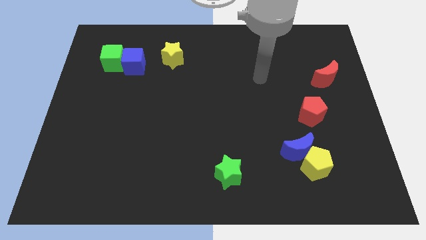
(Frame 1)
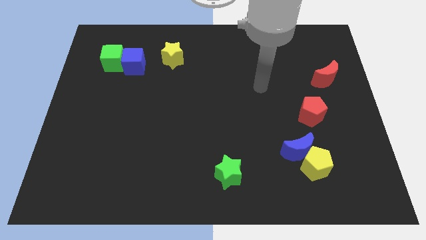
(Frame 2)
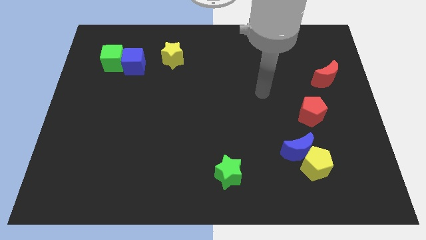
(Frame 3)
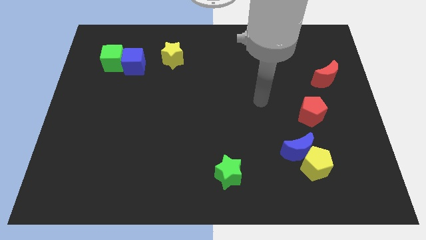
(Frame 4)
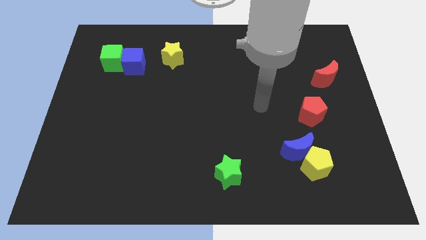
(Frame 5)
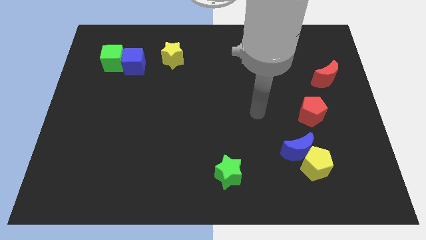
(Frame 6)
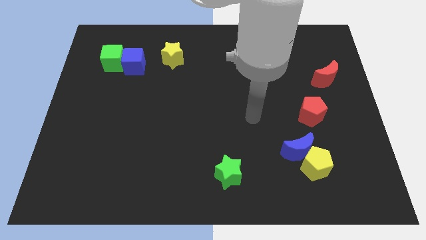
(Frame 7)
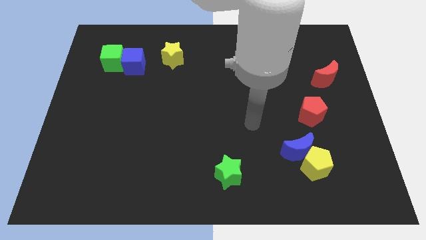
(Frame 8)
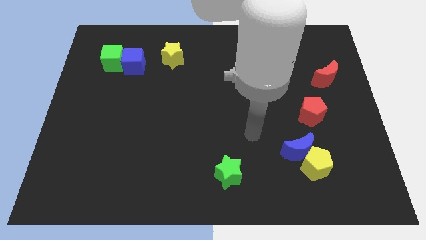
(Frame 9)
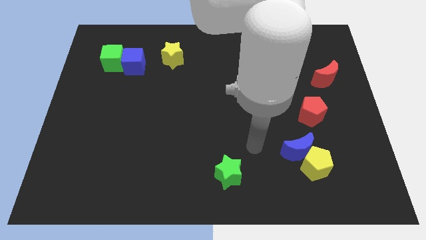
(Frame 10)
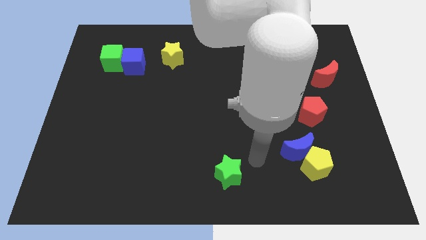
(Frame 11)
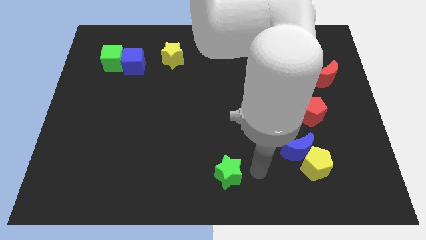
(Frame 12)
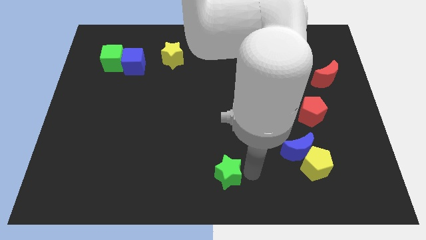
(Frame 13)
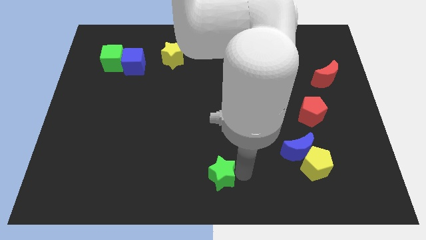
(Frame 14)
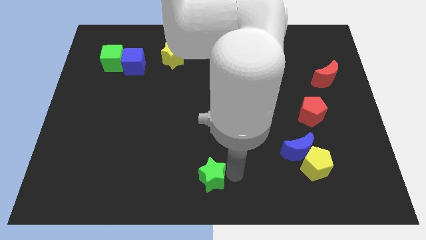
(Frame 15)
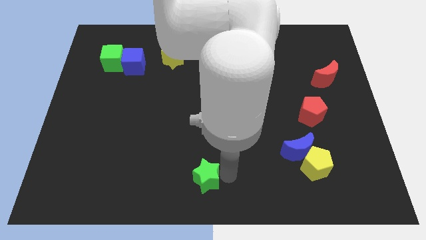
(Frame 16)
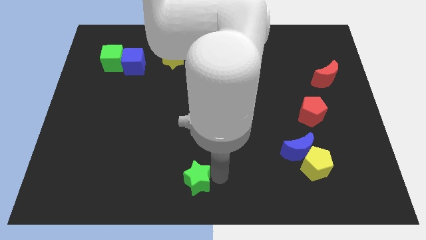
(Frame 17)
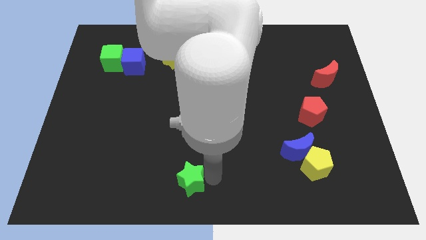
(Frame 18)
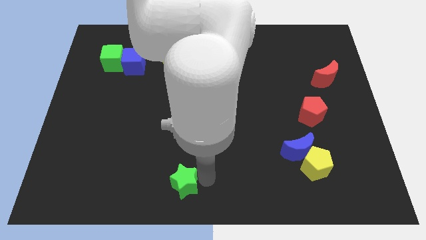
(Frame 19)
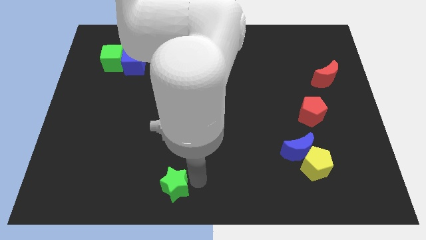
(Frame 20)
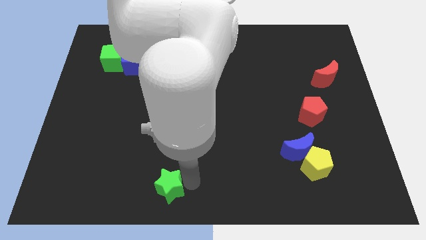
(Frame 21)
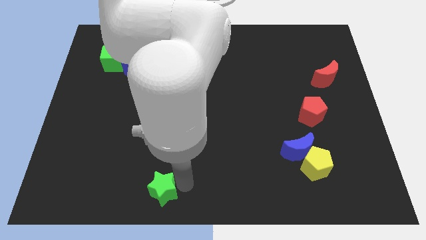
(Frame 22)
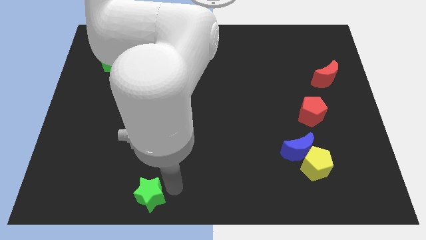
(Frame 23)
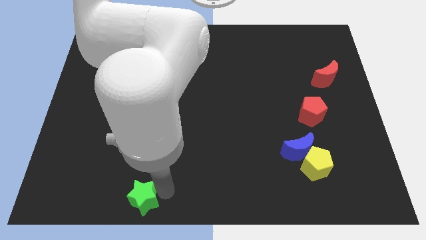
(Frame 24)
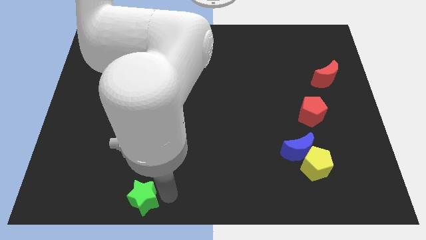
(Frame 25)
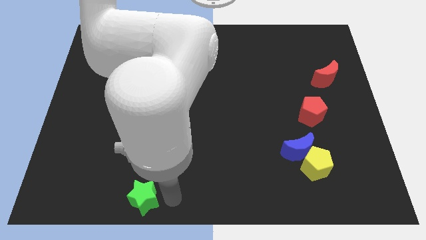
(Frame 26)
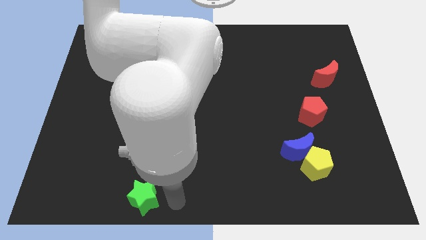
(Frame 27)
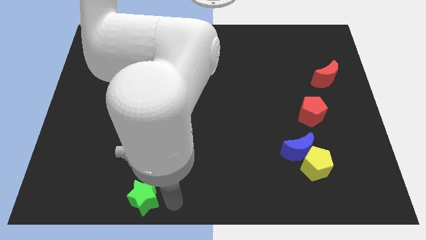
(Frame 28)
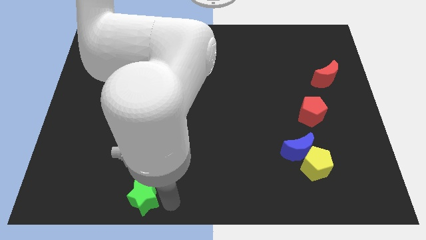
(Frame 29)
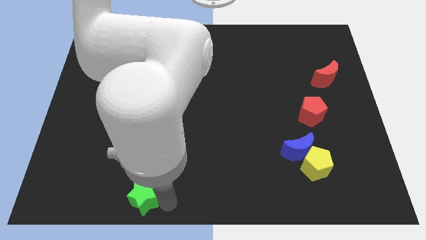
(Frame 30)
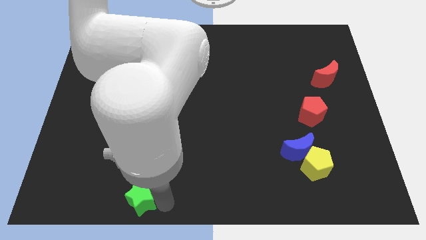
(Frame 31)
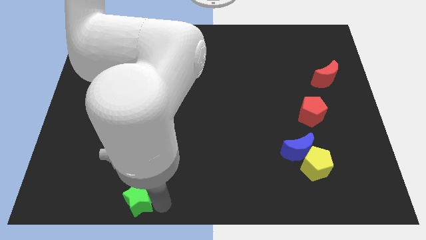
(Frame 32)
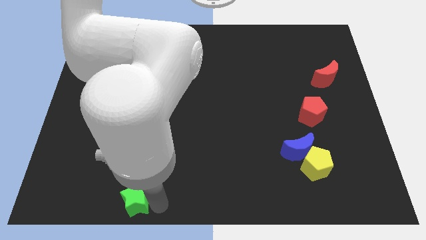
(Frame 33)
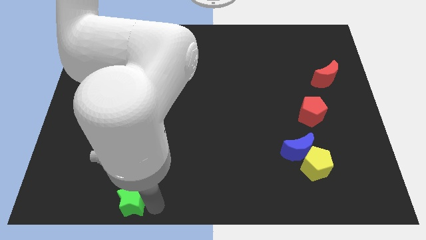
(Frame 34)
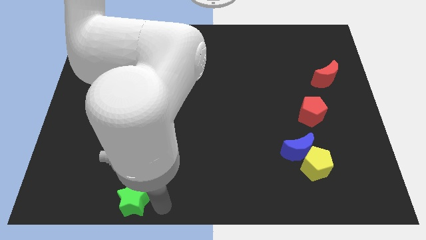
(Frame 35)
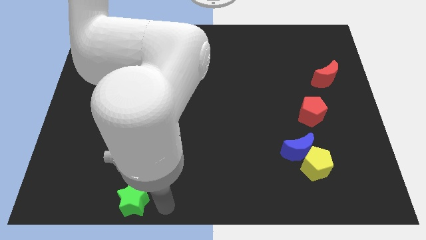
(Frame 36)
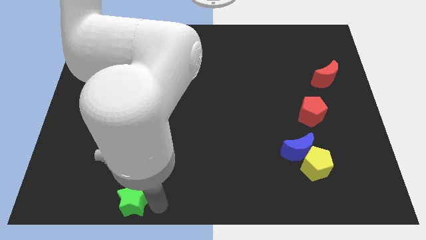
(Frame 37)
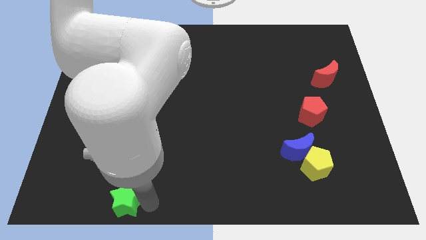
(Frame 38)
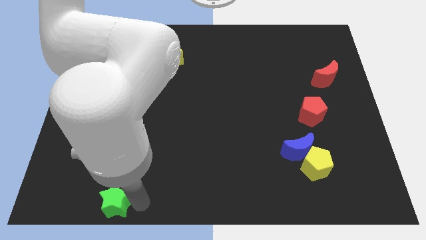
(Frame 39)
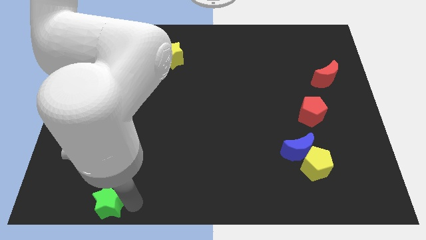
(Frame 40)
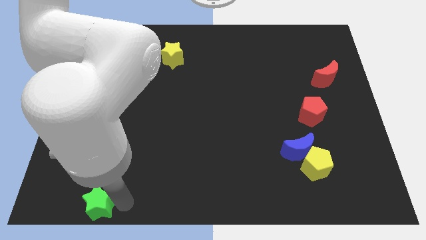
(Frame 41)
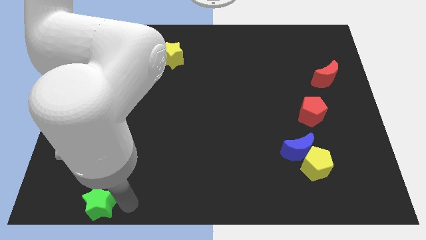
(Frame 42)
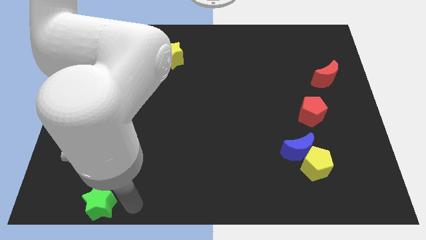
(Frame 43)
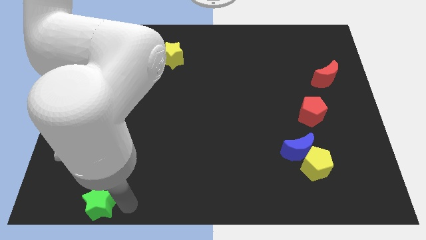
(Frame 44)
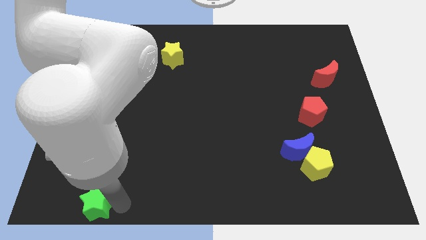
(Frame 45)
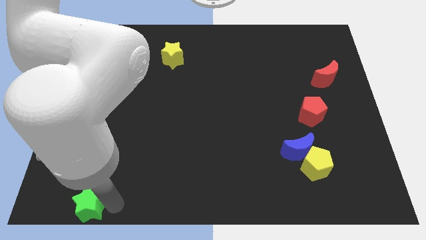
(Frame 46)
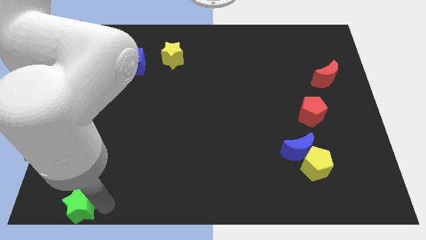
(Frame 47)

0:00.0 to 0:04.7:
put the green star to the bottom left corner

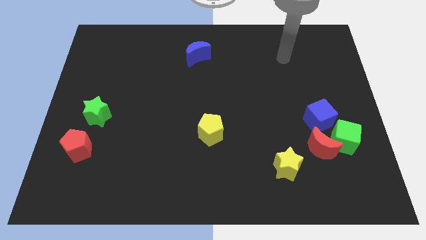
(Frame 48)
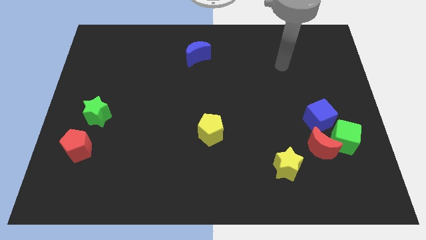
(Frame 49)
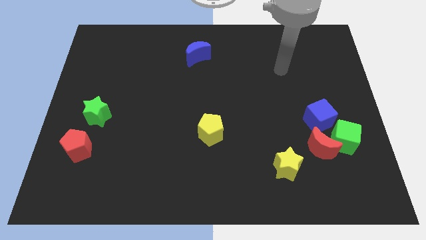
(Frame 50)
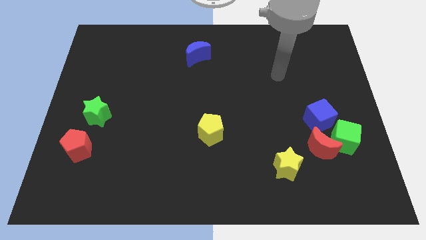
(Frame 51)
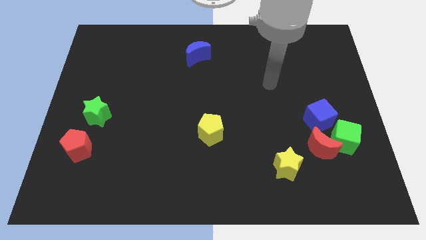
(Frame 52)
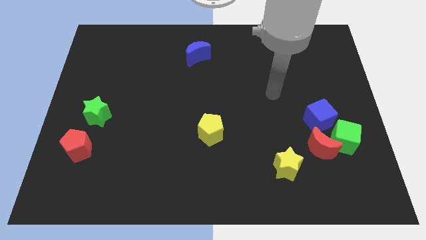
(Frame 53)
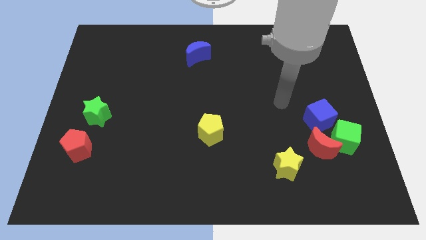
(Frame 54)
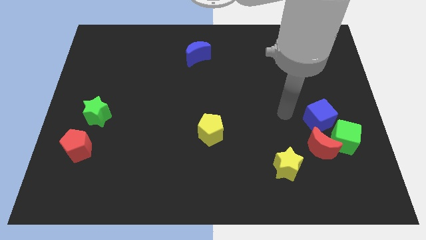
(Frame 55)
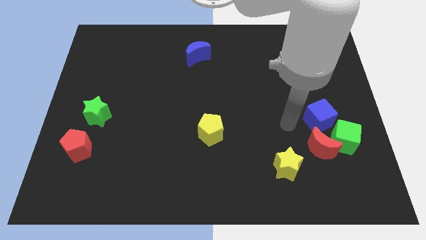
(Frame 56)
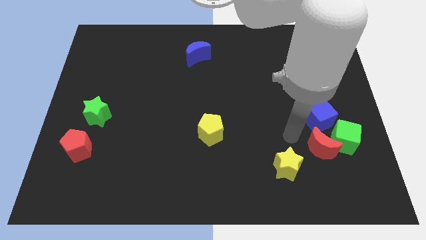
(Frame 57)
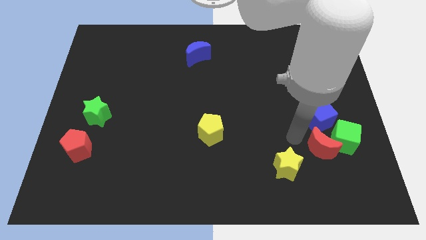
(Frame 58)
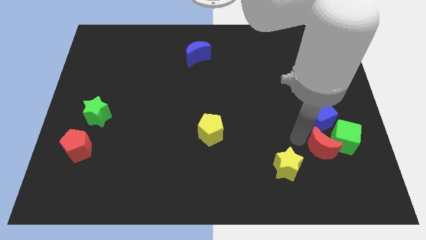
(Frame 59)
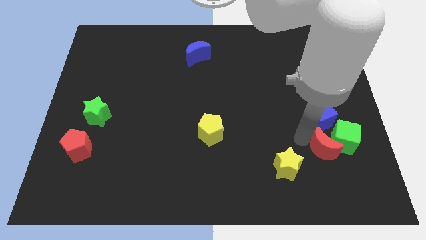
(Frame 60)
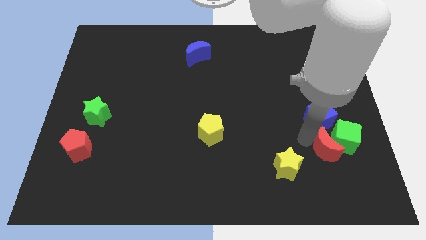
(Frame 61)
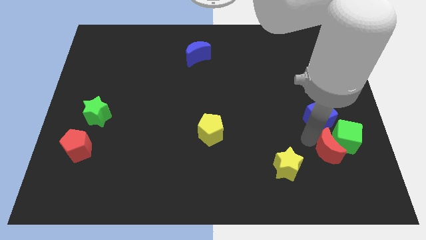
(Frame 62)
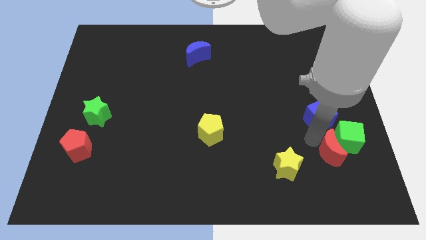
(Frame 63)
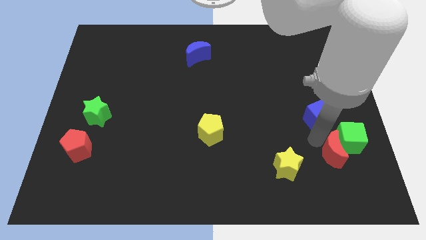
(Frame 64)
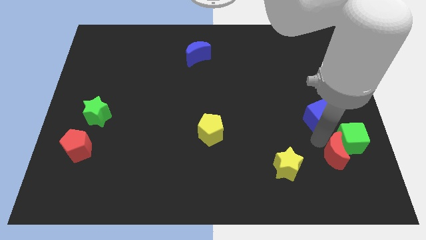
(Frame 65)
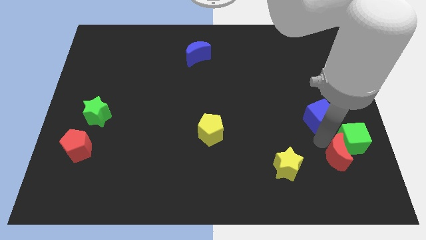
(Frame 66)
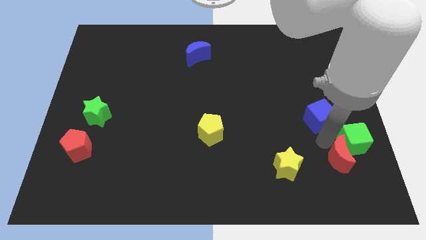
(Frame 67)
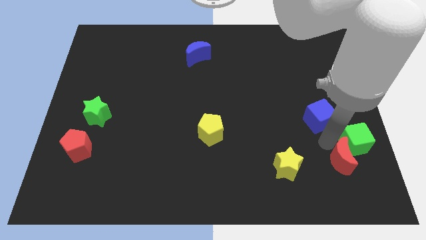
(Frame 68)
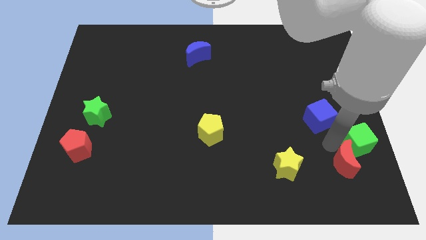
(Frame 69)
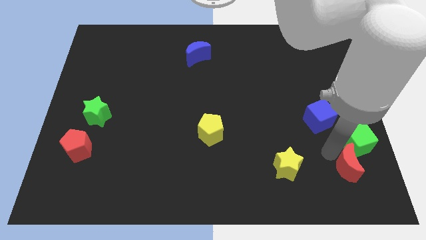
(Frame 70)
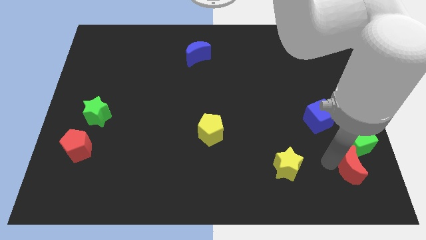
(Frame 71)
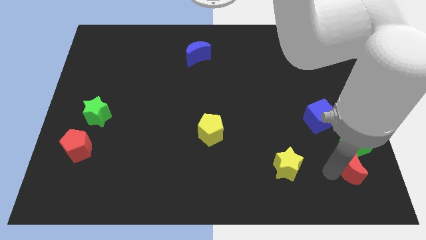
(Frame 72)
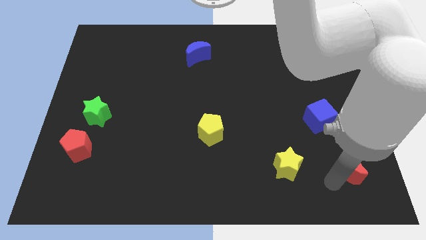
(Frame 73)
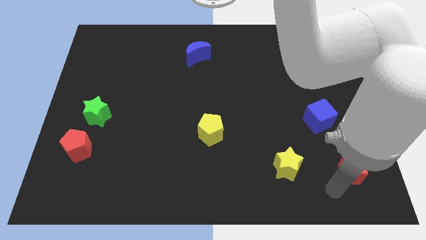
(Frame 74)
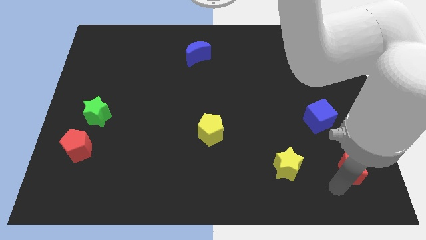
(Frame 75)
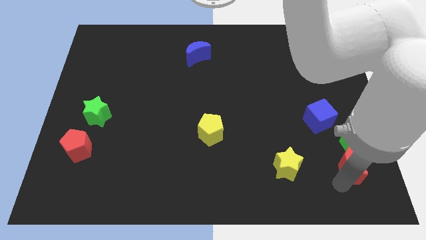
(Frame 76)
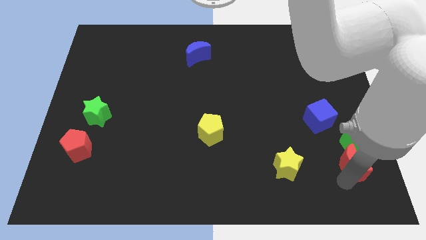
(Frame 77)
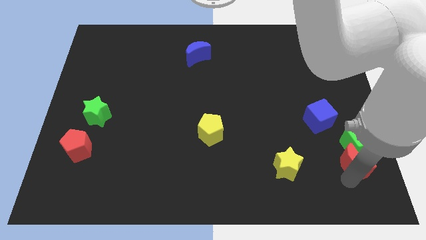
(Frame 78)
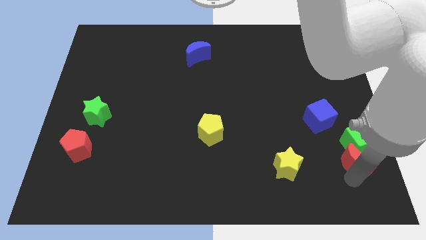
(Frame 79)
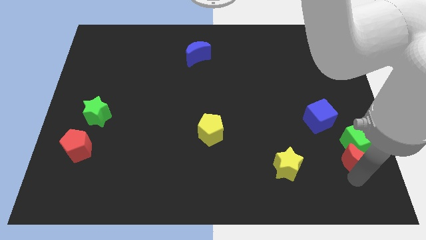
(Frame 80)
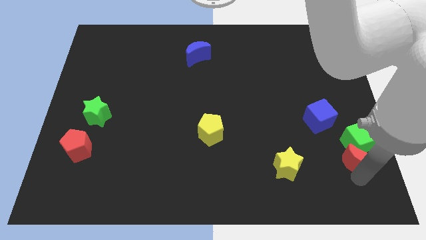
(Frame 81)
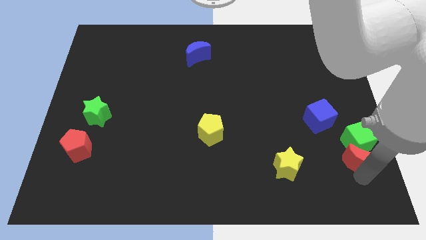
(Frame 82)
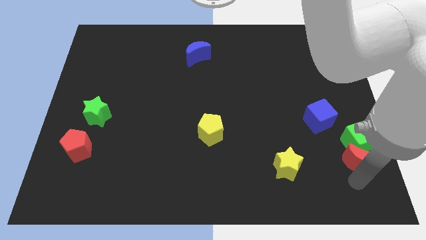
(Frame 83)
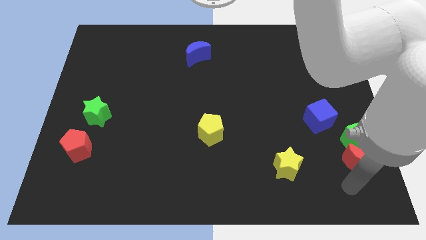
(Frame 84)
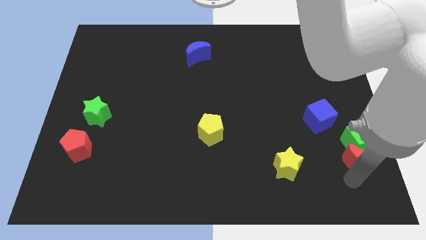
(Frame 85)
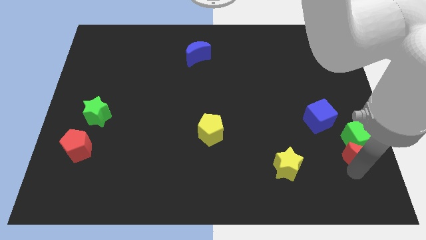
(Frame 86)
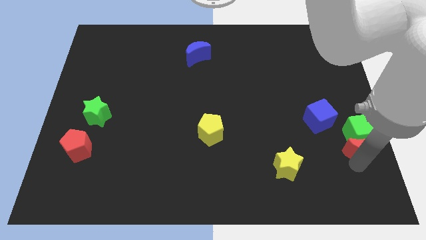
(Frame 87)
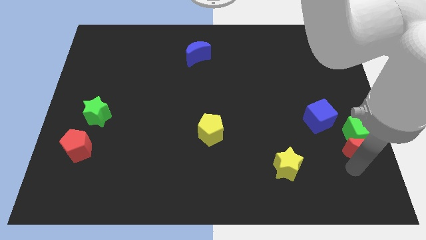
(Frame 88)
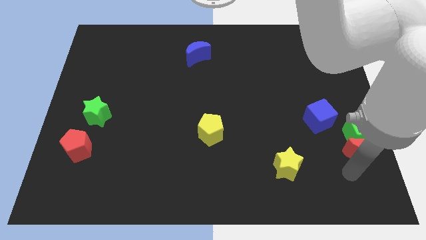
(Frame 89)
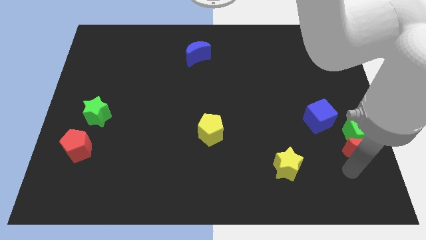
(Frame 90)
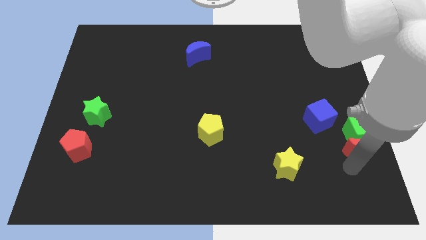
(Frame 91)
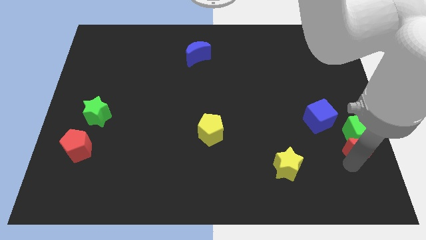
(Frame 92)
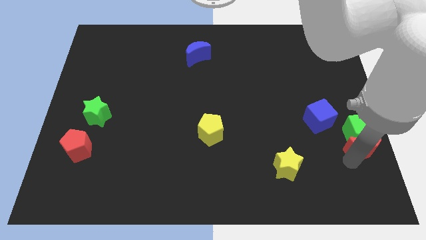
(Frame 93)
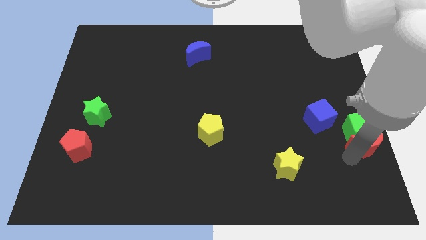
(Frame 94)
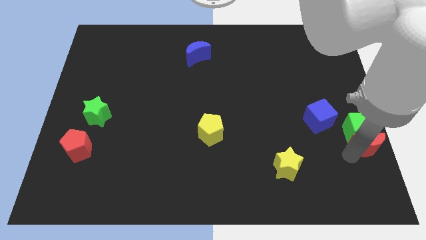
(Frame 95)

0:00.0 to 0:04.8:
push the red moon to the right side of the board
